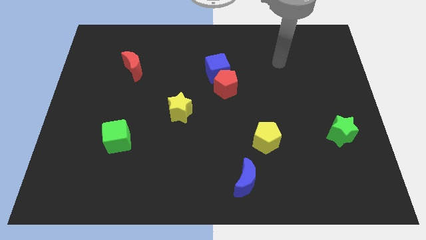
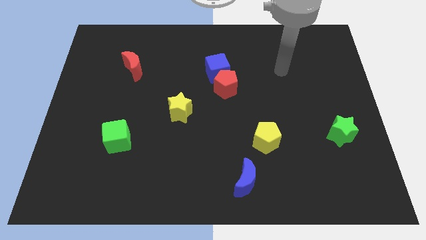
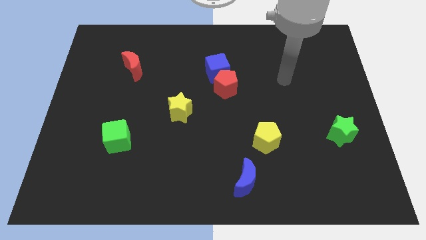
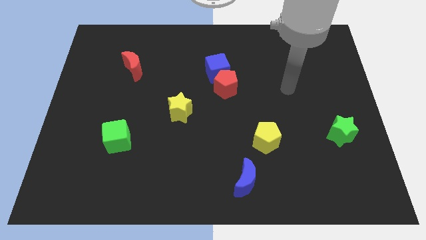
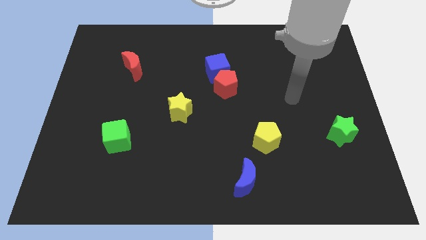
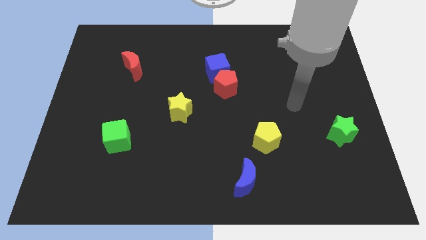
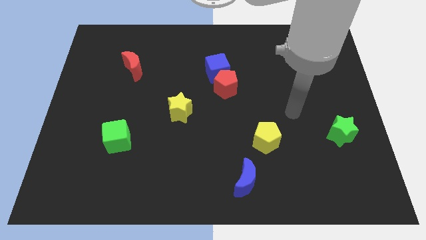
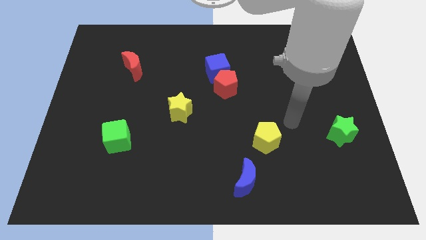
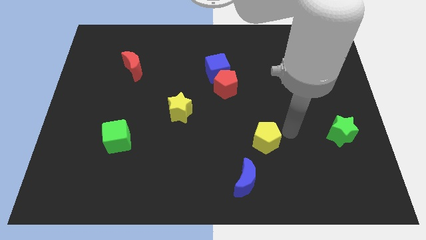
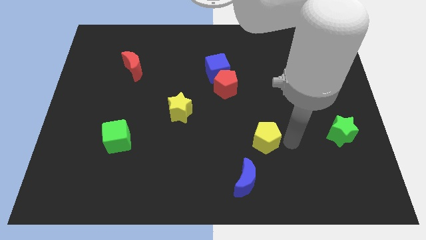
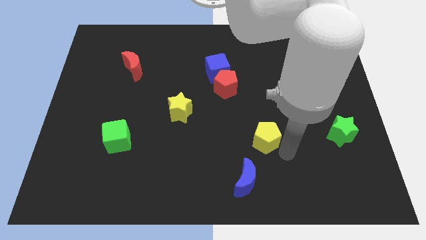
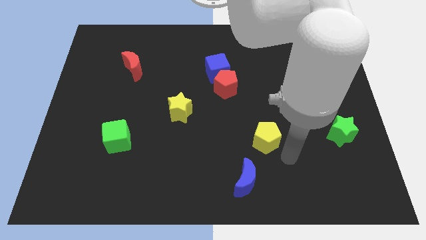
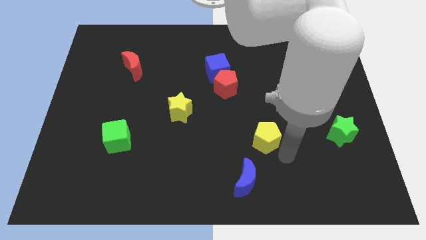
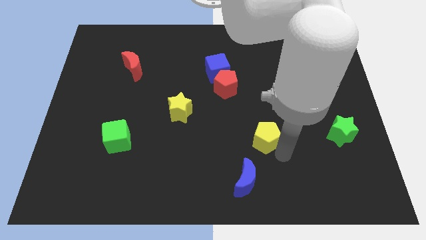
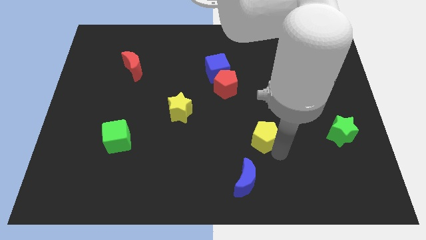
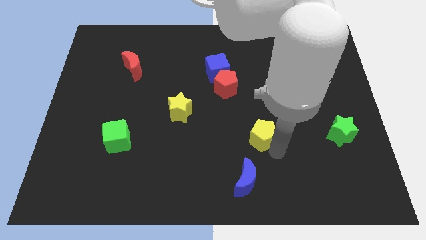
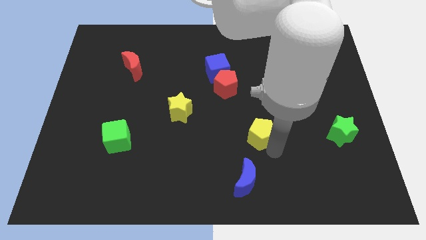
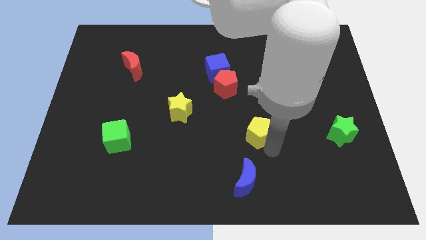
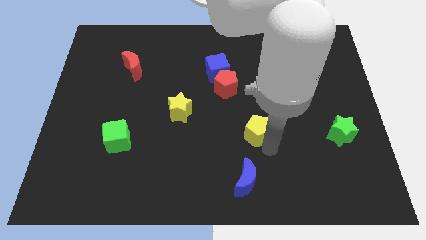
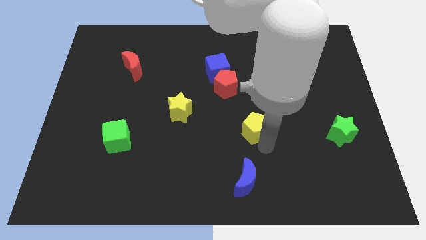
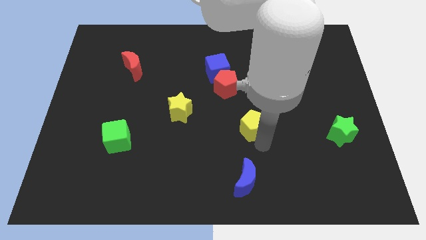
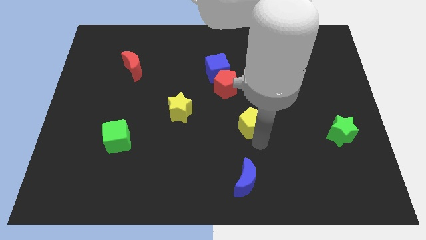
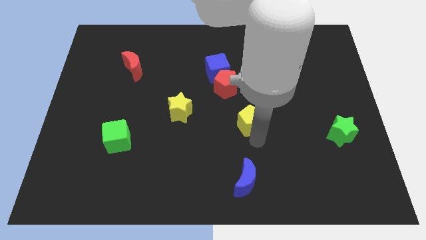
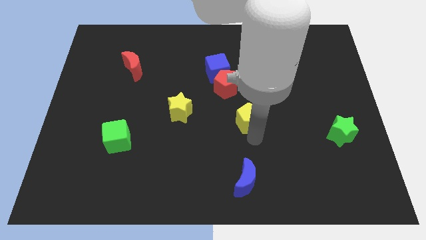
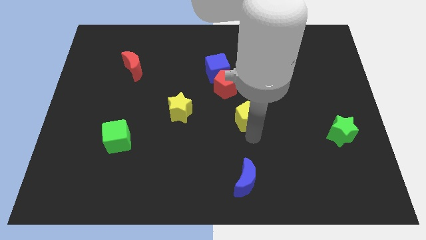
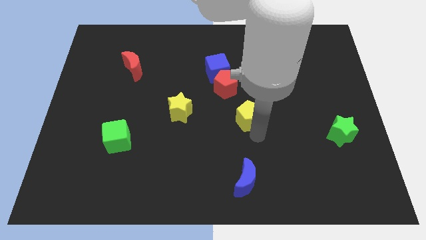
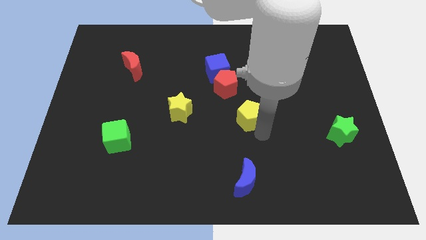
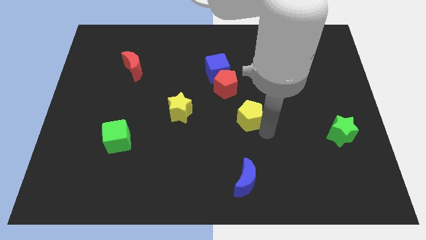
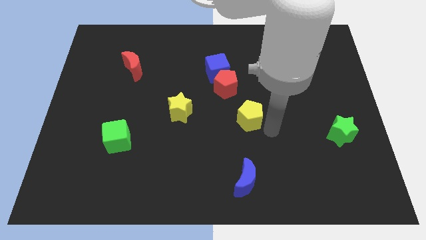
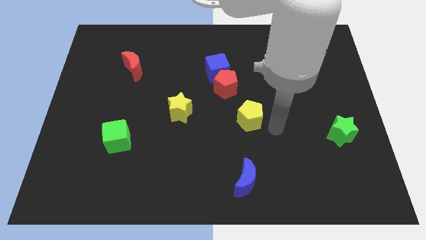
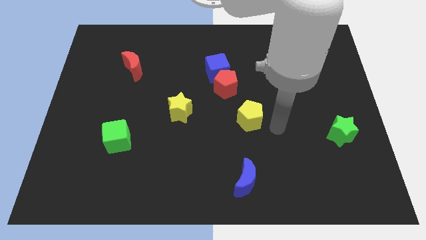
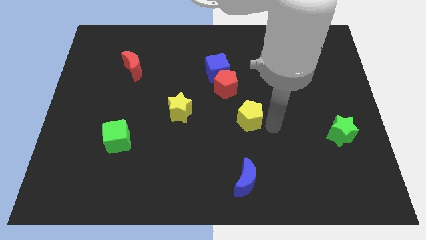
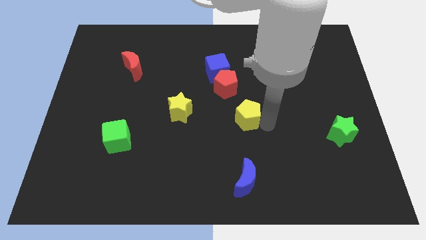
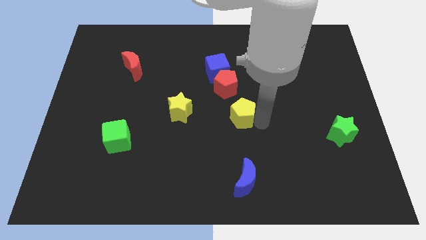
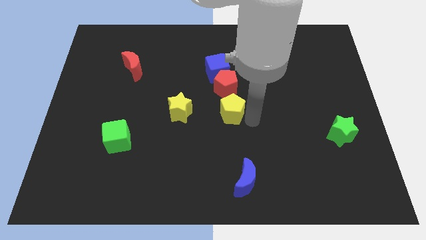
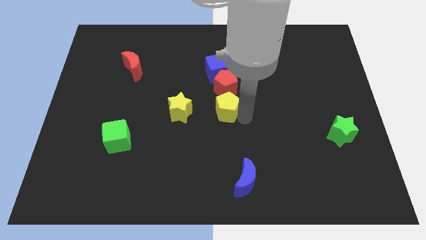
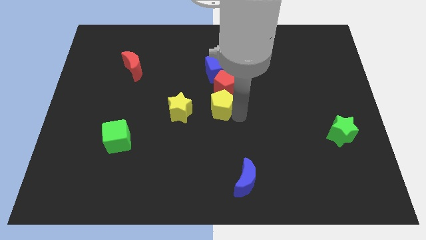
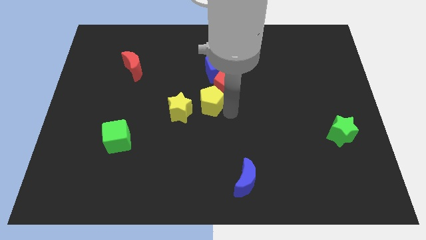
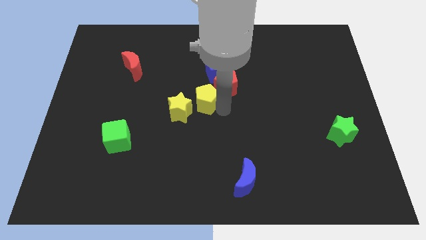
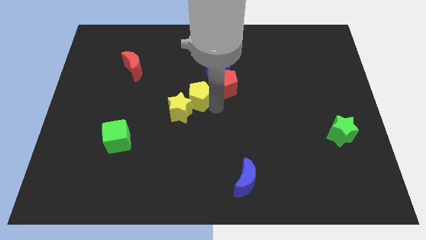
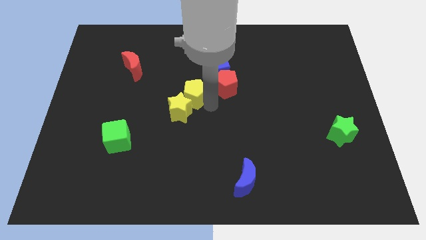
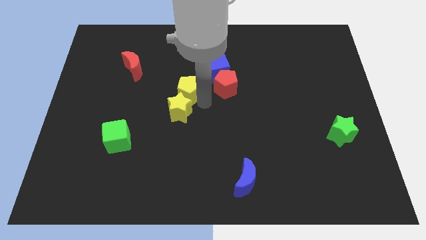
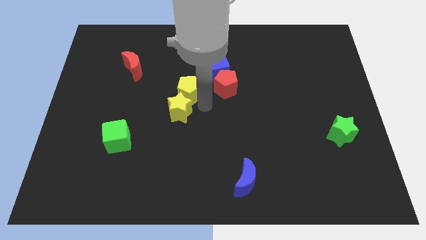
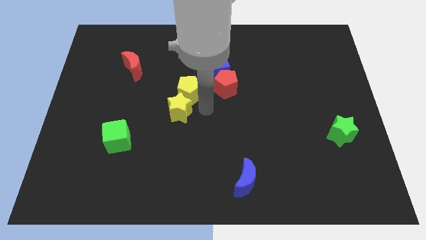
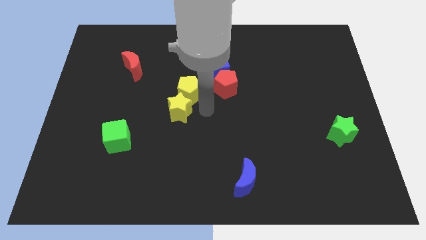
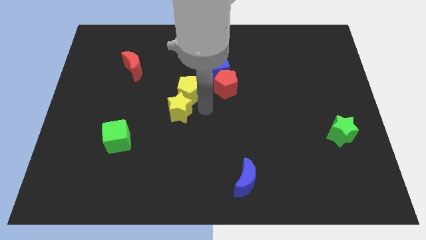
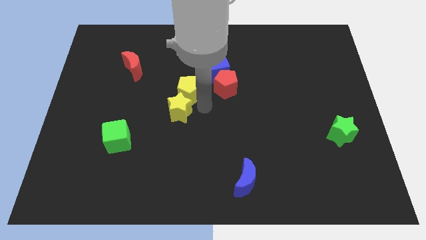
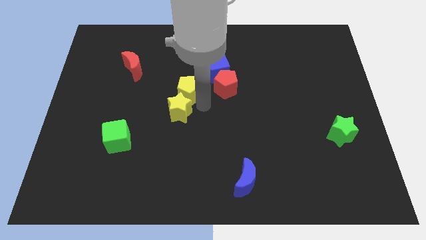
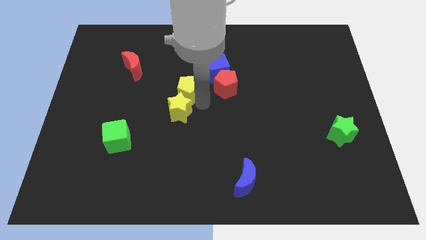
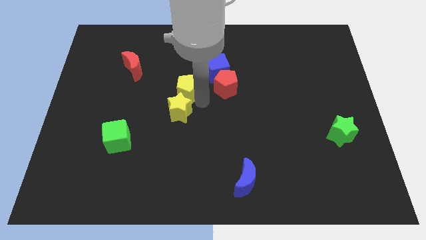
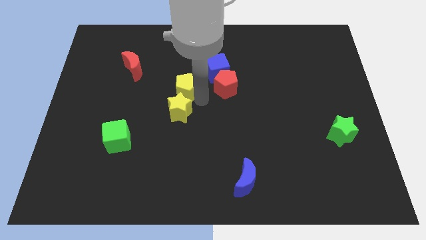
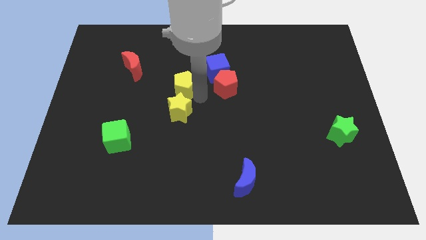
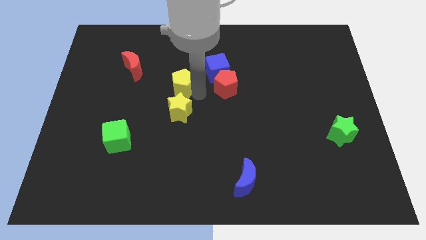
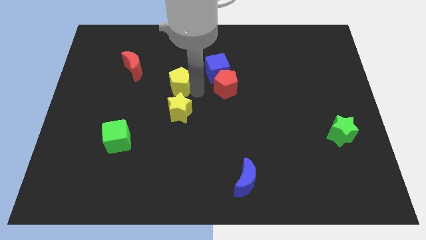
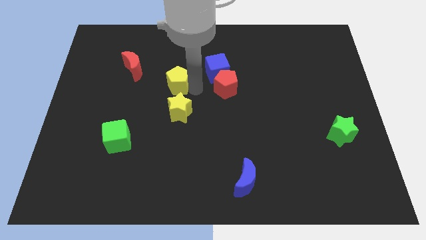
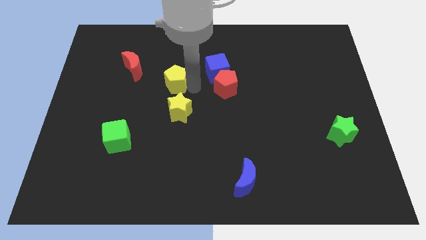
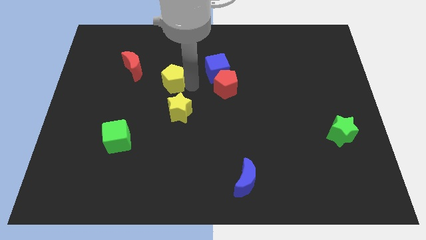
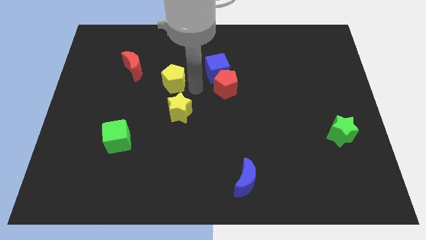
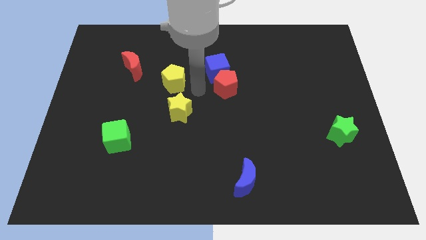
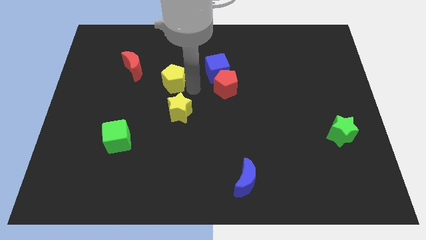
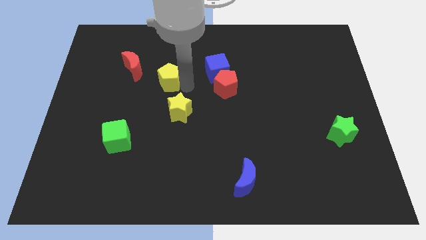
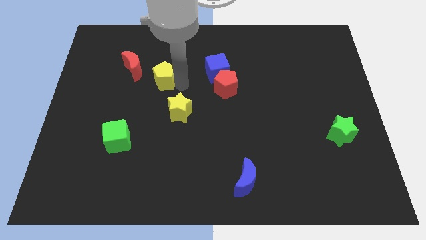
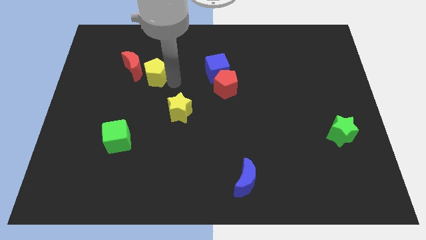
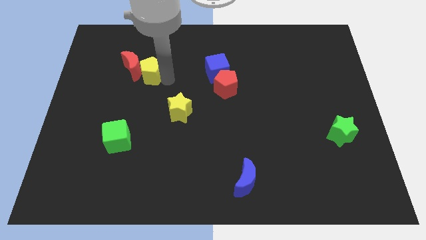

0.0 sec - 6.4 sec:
slide the yellow pentagon close to the red moon

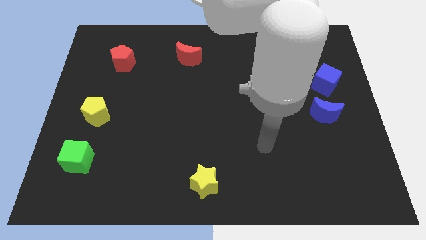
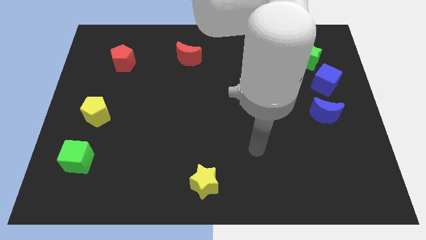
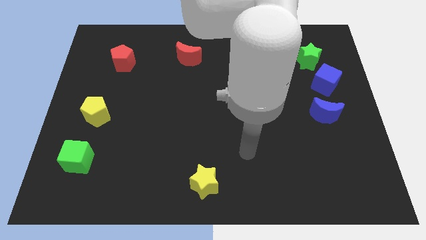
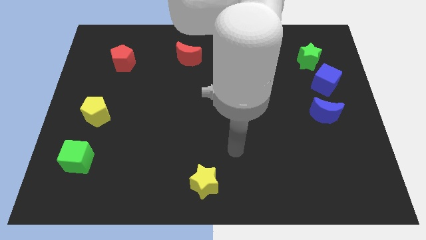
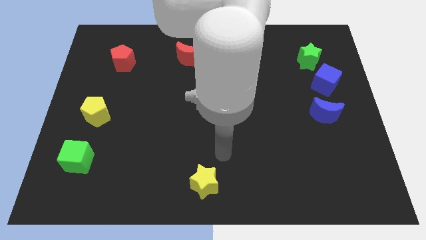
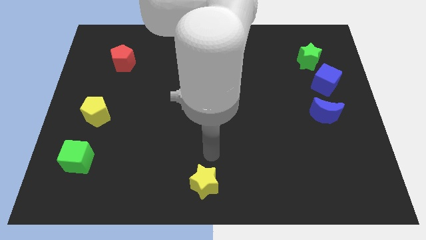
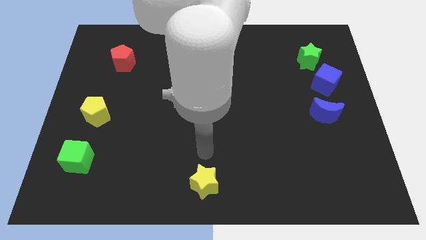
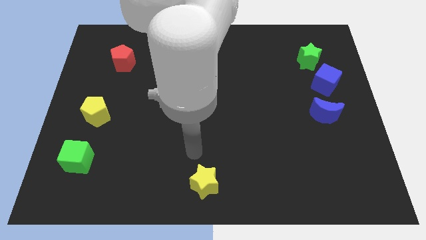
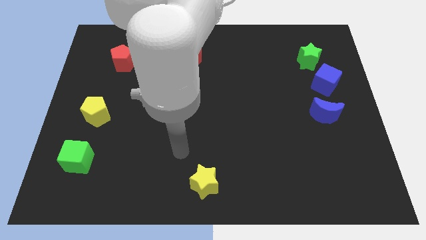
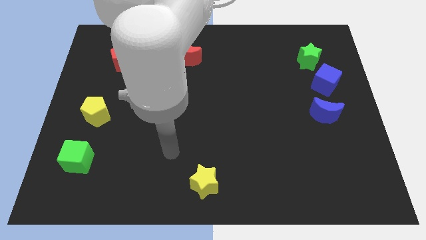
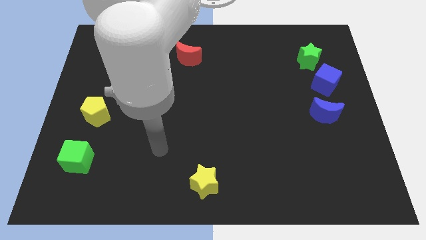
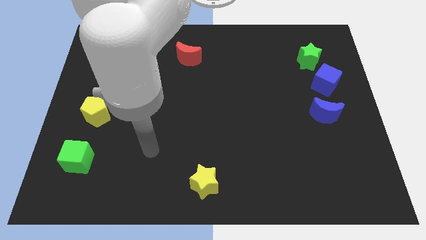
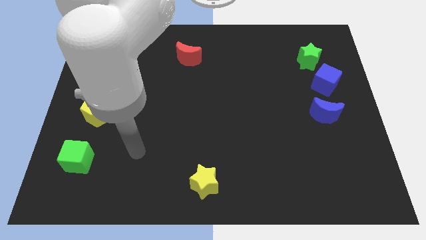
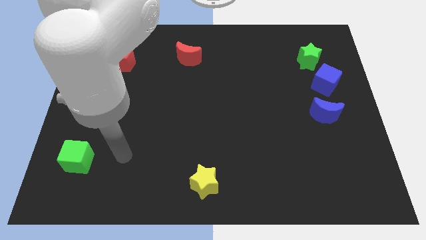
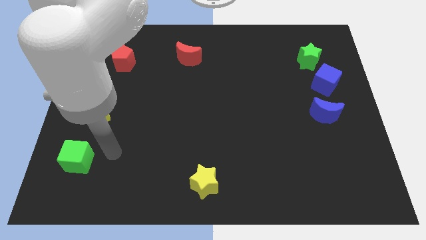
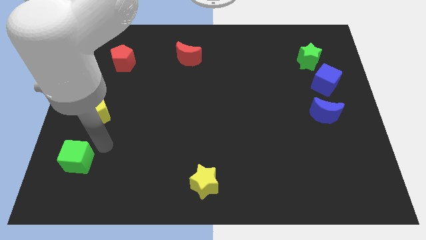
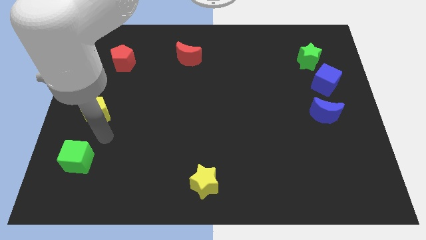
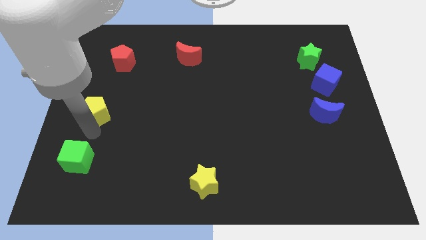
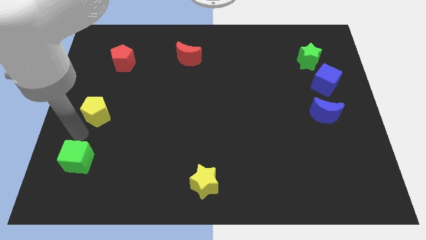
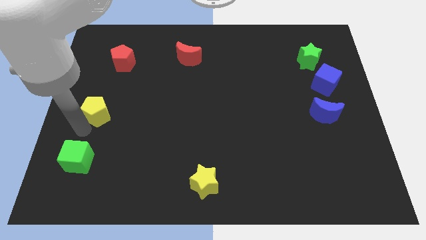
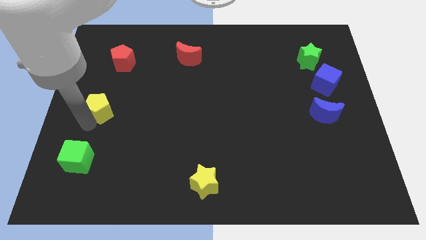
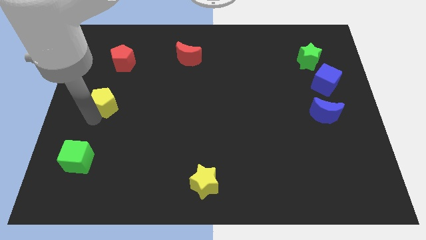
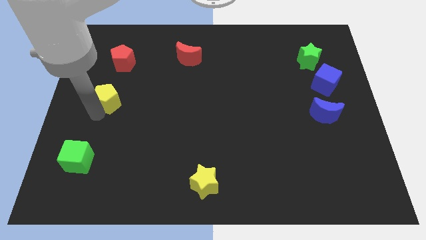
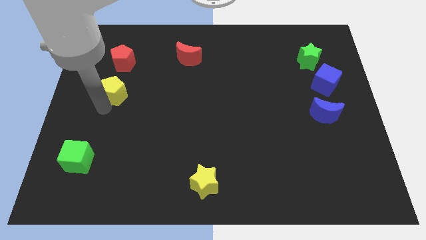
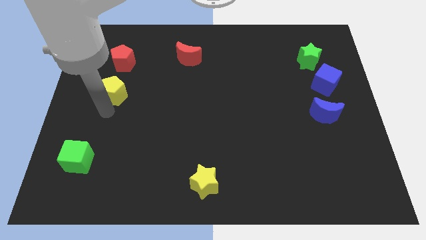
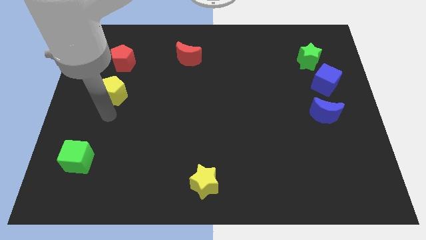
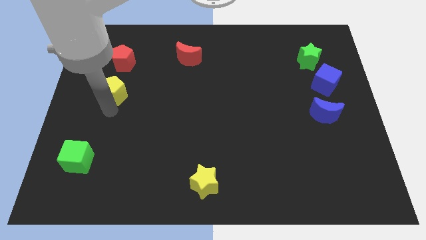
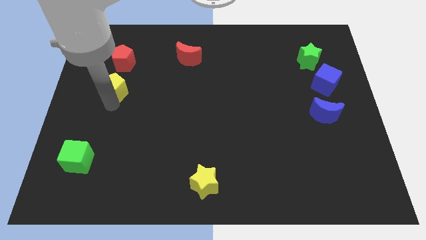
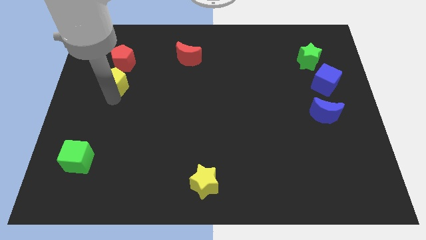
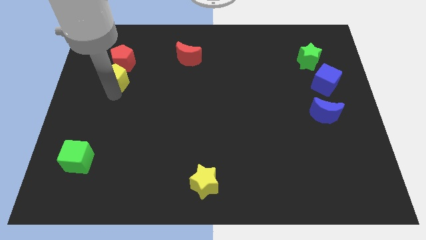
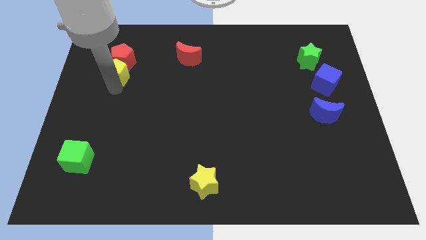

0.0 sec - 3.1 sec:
slide the yellow pentagon towards the red pentagon
